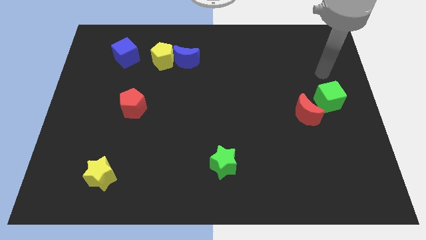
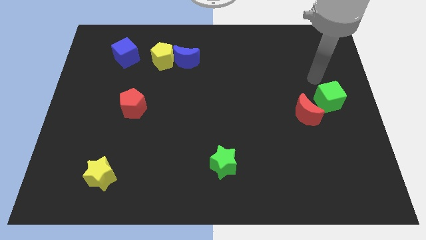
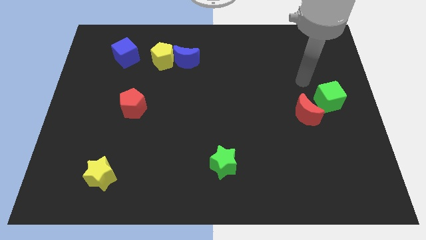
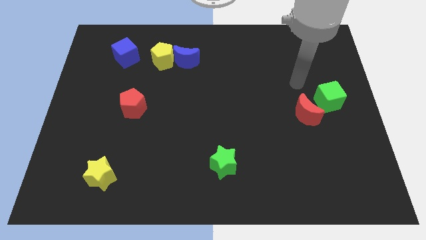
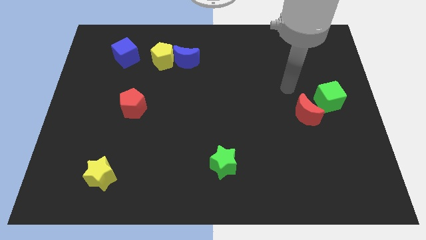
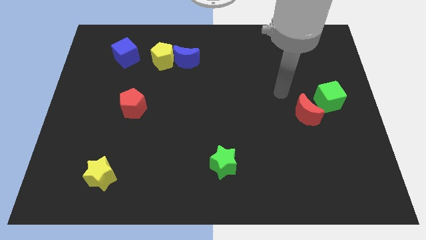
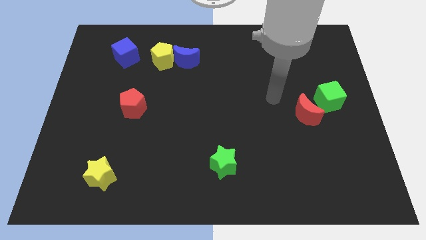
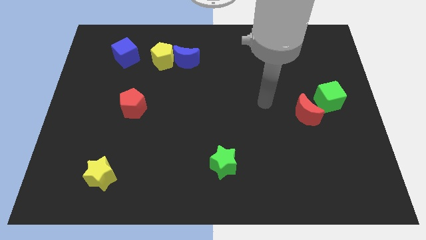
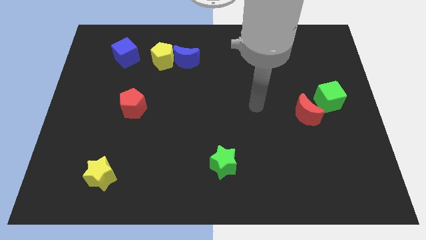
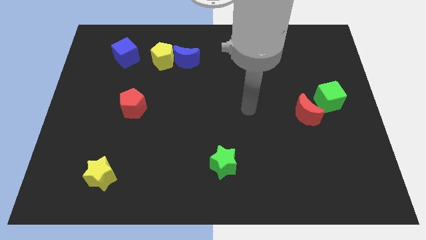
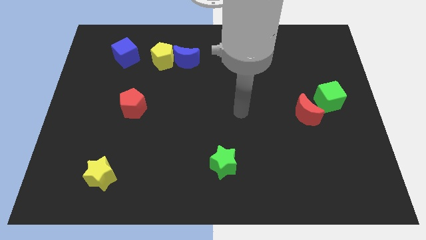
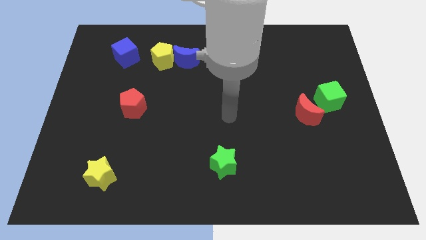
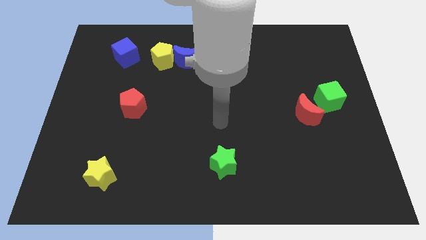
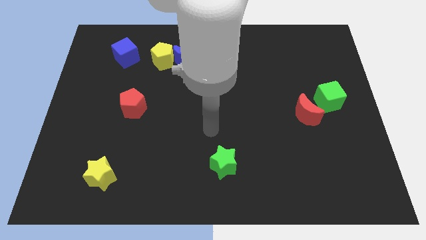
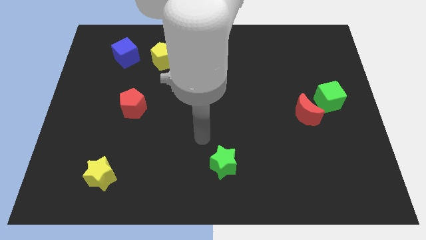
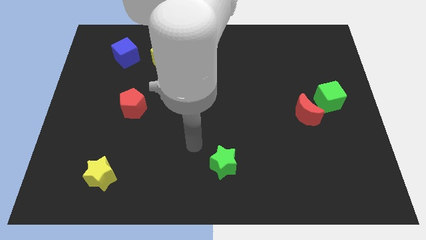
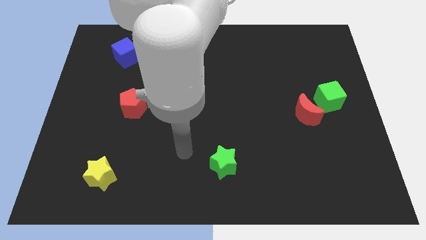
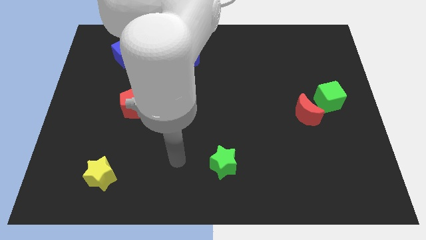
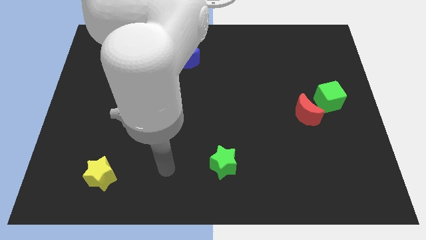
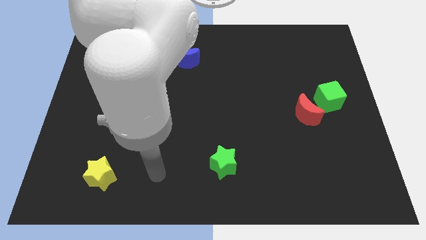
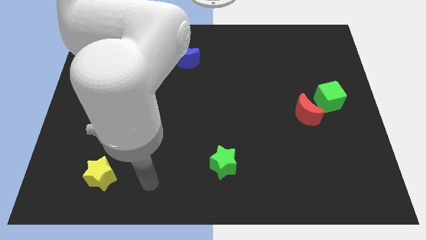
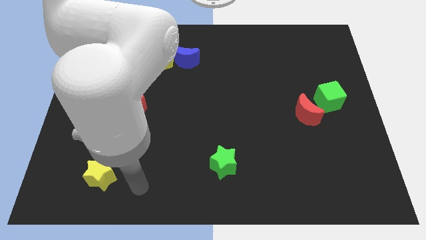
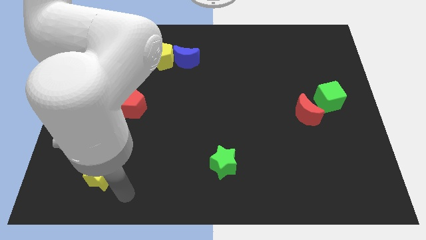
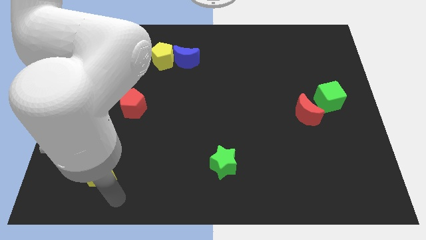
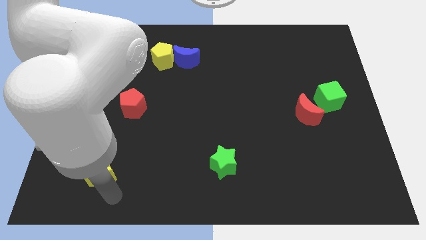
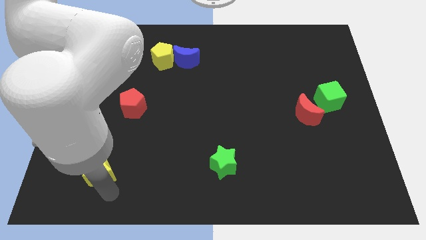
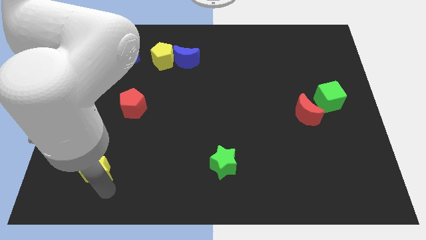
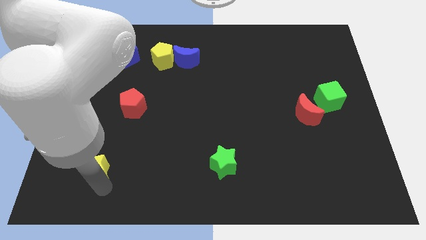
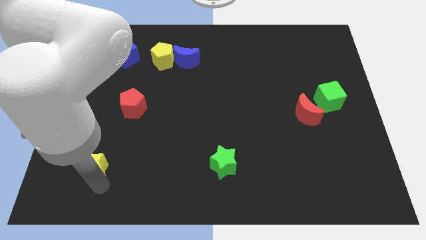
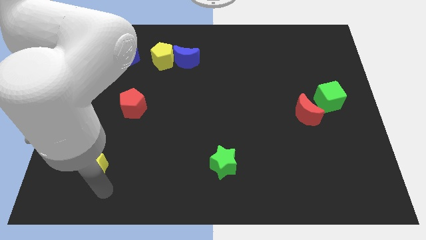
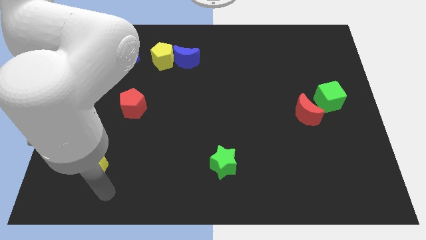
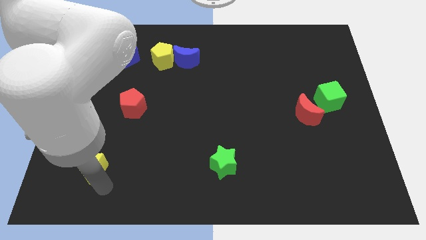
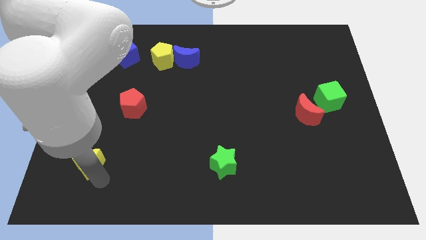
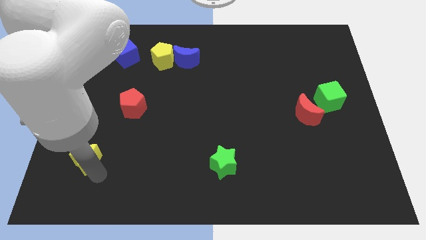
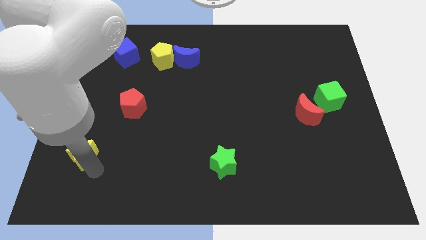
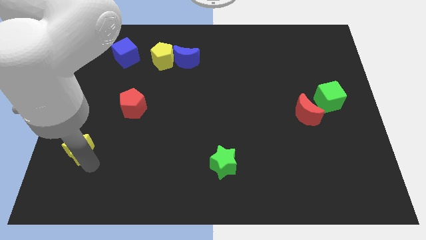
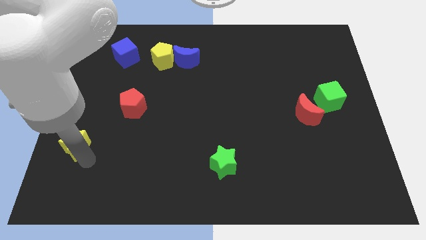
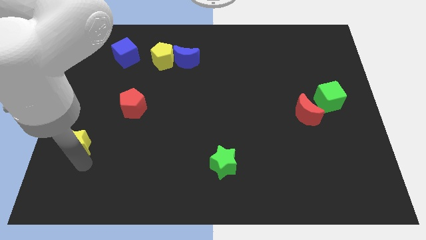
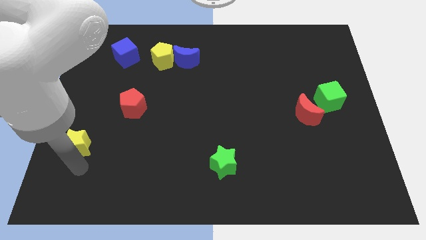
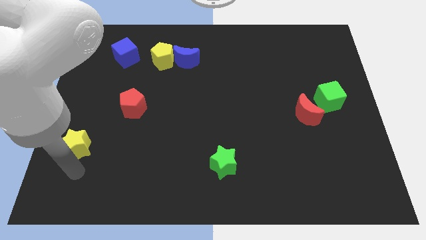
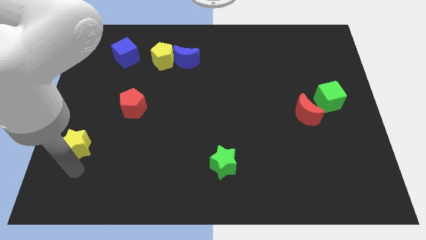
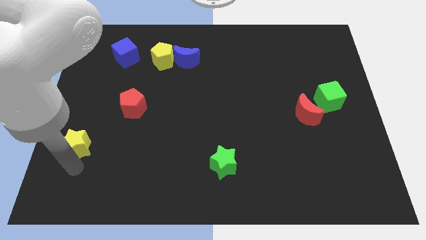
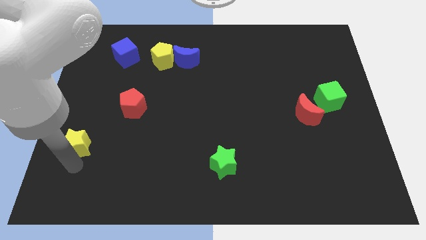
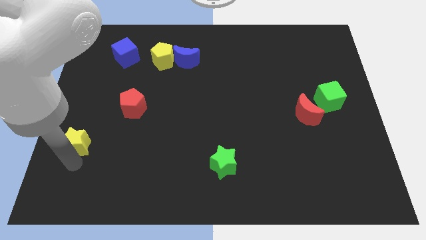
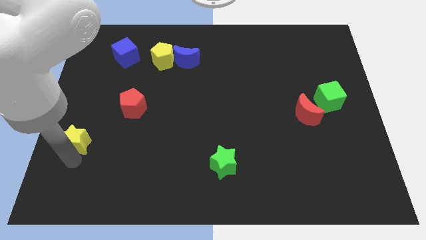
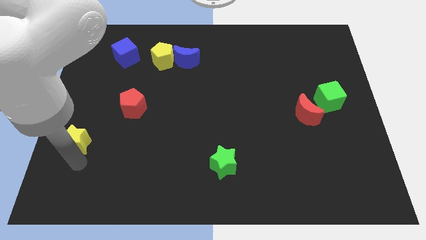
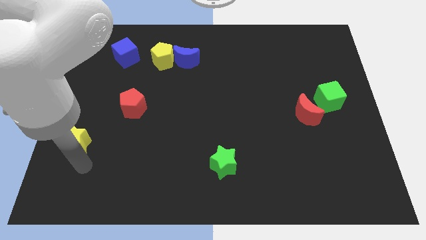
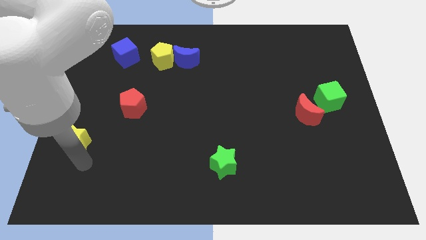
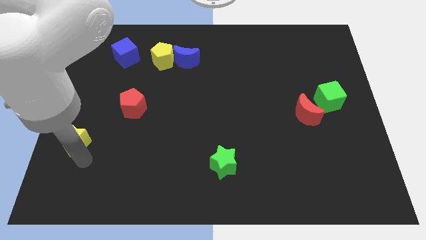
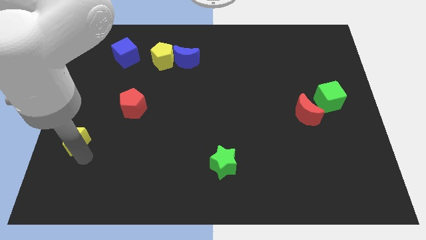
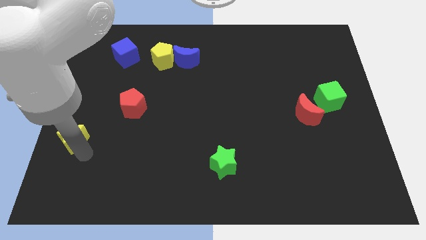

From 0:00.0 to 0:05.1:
slide the yellow star to the left side of the board
